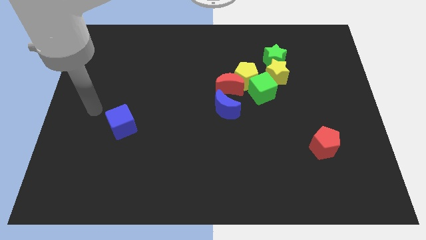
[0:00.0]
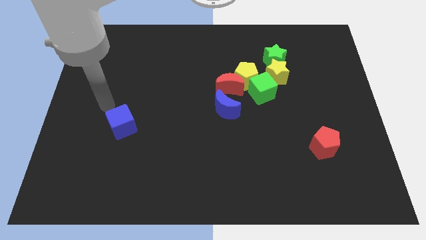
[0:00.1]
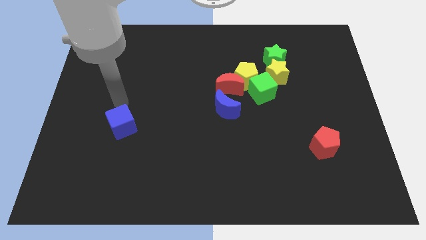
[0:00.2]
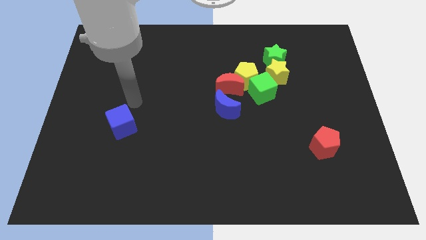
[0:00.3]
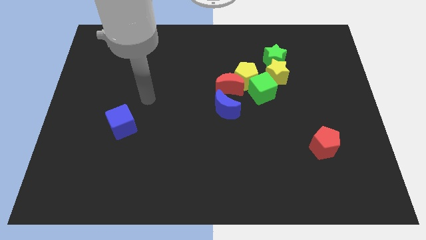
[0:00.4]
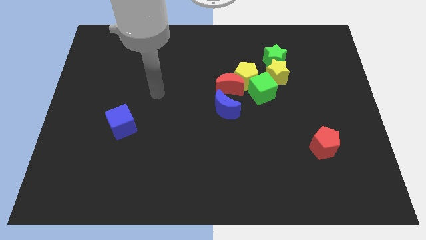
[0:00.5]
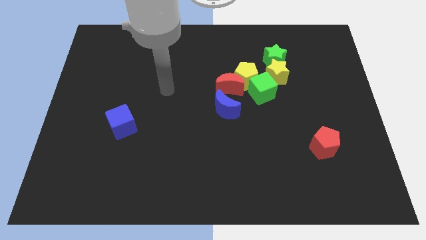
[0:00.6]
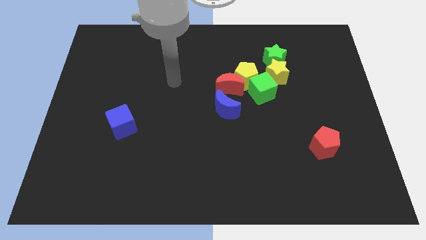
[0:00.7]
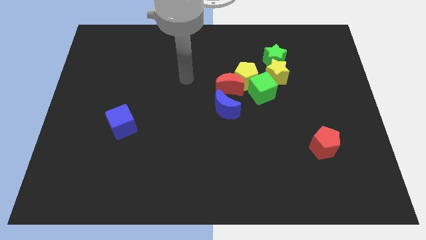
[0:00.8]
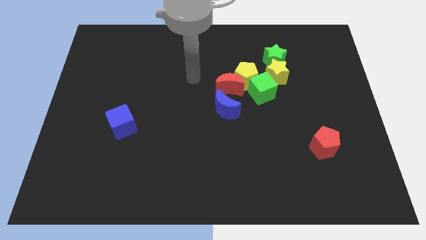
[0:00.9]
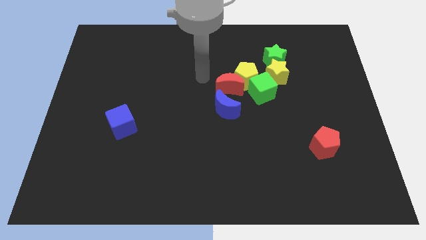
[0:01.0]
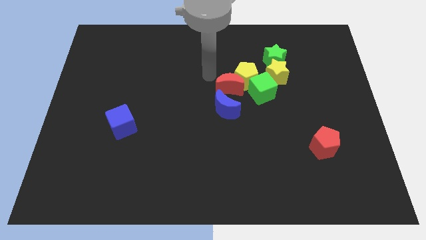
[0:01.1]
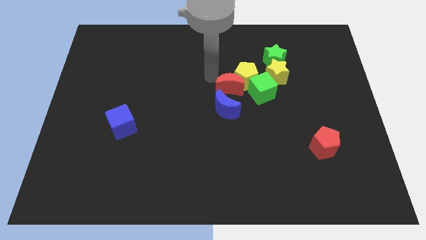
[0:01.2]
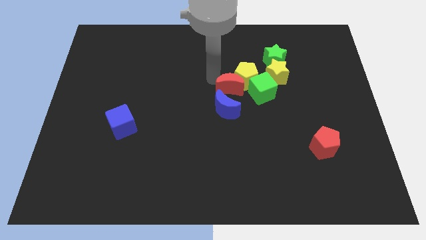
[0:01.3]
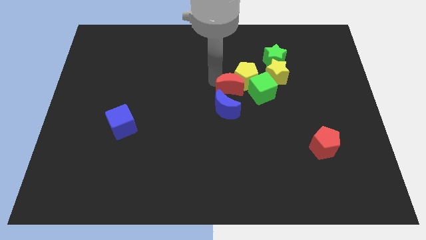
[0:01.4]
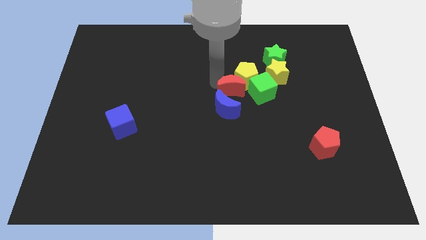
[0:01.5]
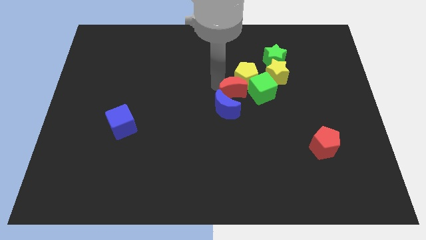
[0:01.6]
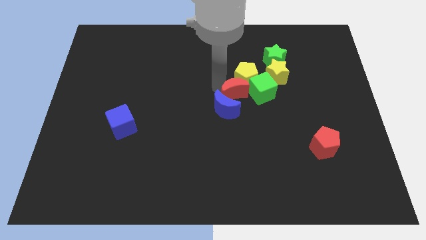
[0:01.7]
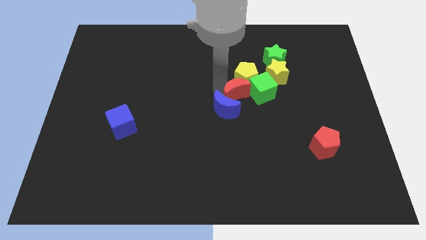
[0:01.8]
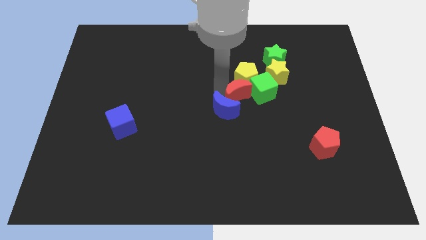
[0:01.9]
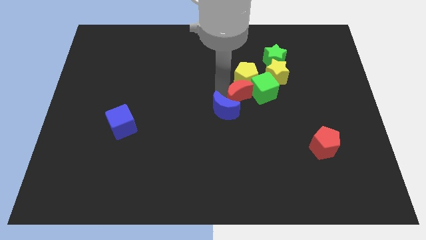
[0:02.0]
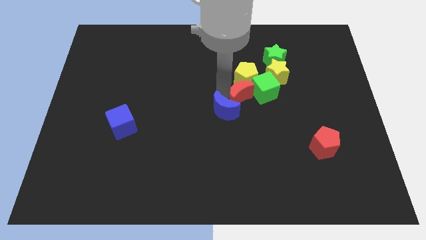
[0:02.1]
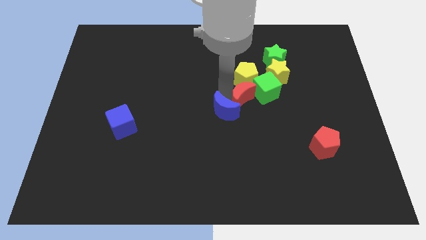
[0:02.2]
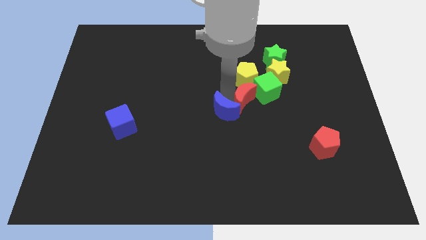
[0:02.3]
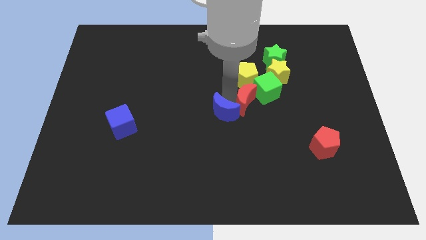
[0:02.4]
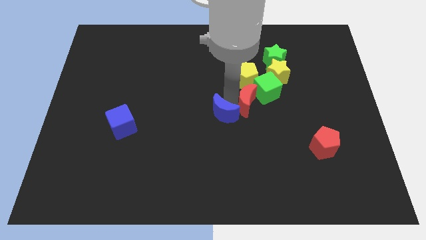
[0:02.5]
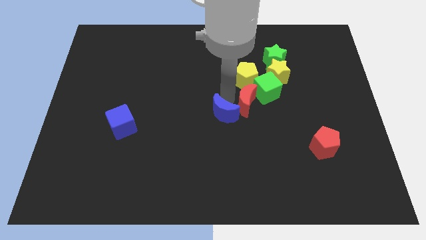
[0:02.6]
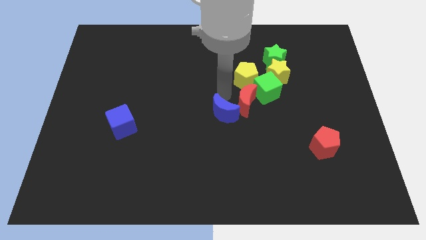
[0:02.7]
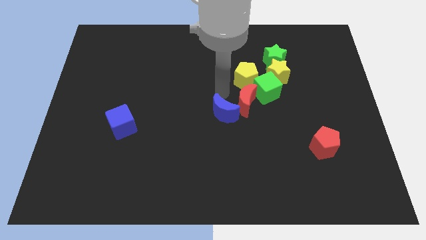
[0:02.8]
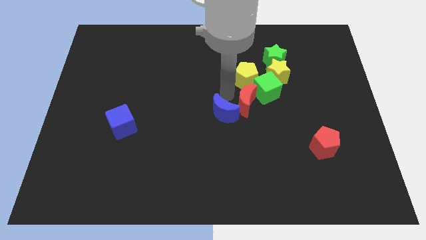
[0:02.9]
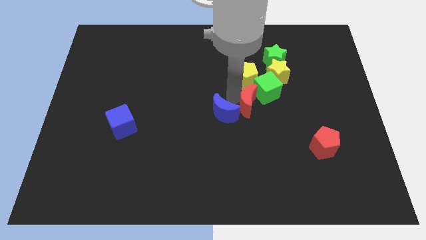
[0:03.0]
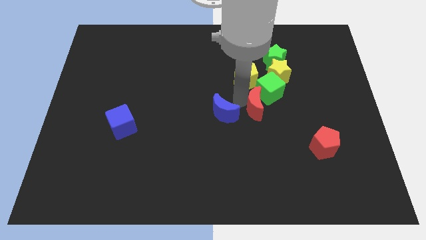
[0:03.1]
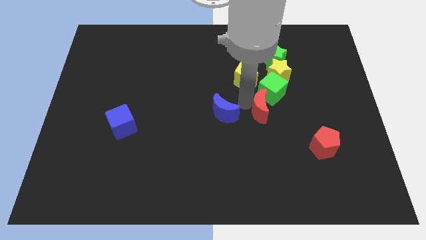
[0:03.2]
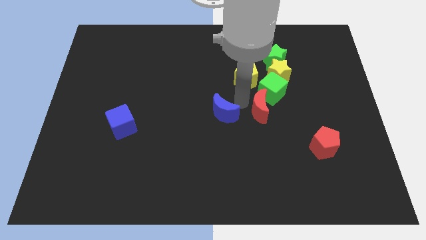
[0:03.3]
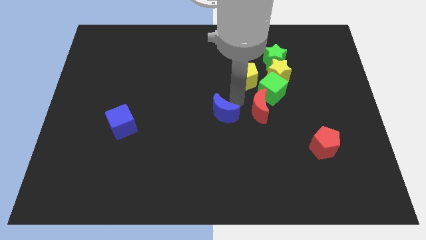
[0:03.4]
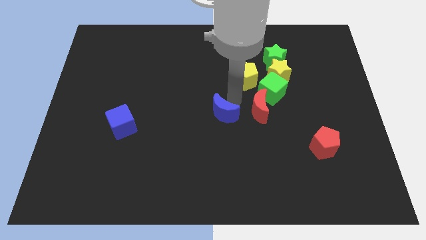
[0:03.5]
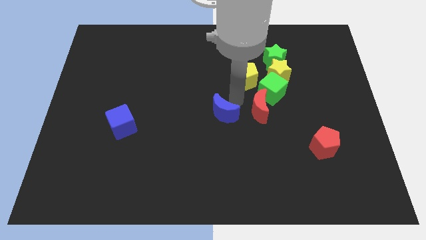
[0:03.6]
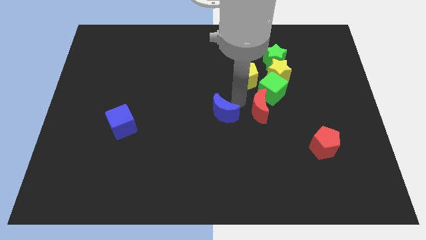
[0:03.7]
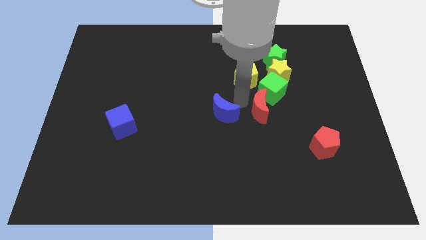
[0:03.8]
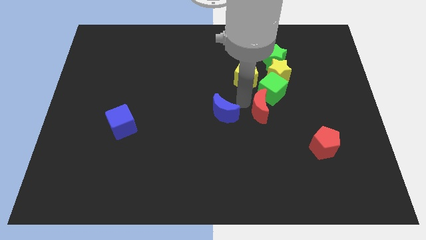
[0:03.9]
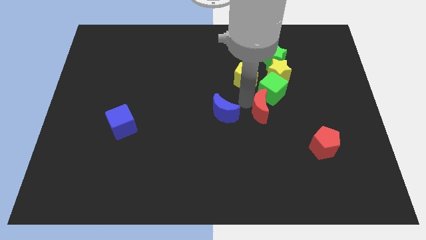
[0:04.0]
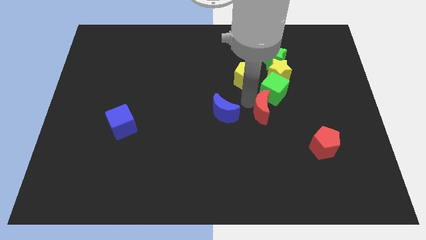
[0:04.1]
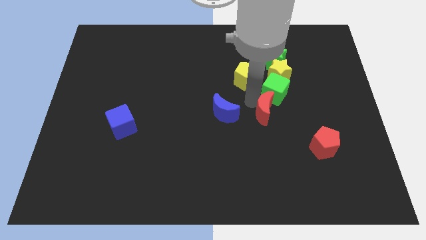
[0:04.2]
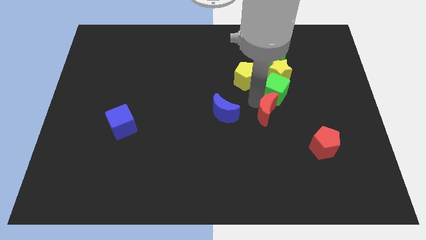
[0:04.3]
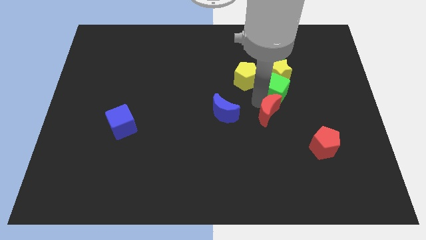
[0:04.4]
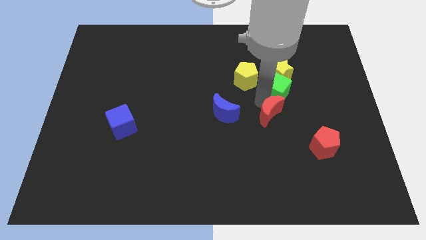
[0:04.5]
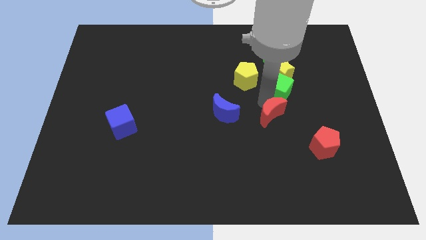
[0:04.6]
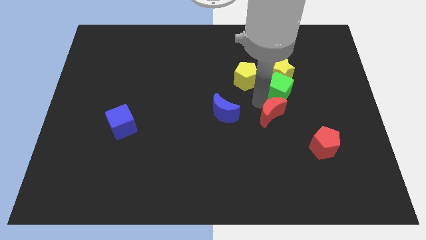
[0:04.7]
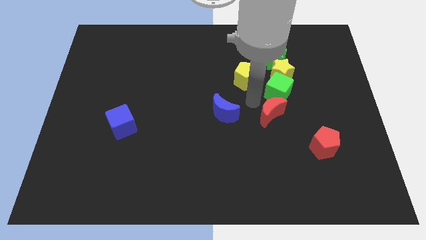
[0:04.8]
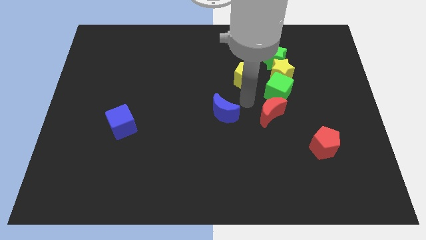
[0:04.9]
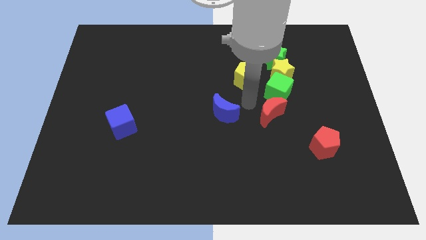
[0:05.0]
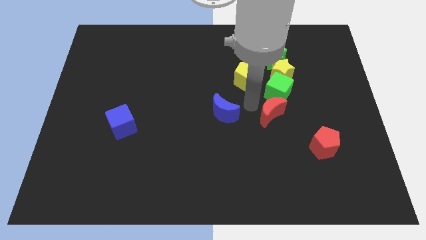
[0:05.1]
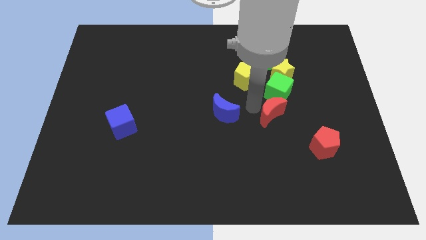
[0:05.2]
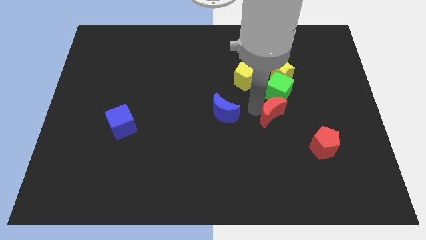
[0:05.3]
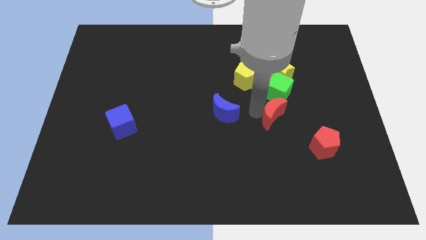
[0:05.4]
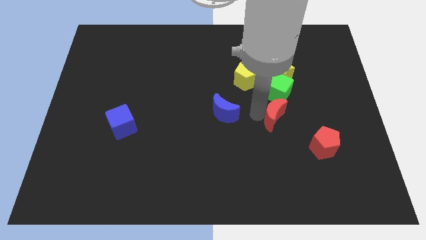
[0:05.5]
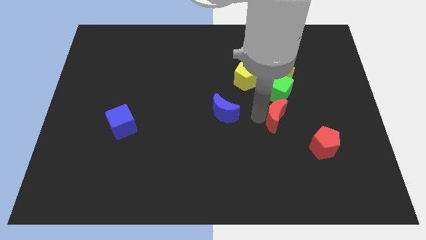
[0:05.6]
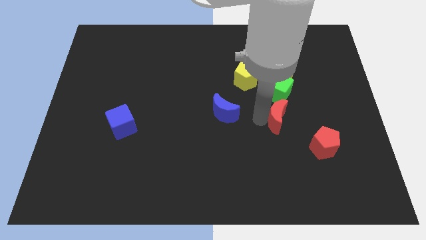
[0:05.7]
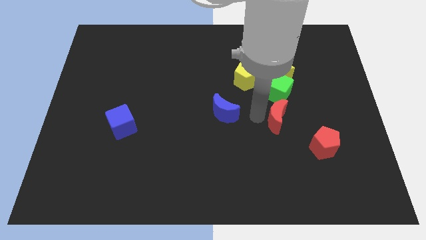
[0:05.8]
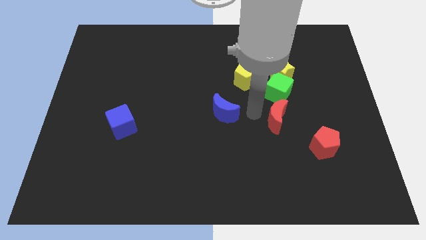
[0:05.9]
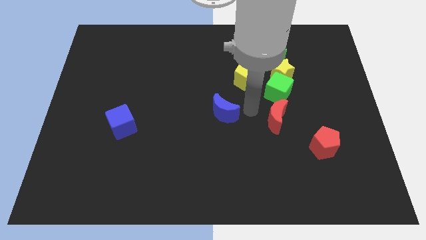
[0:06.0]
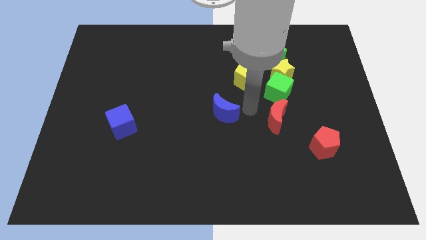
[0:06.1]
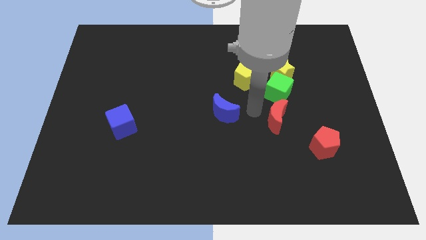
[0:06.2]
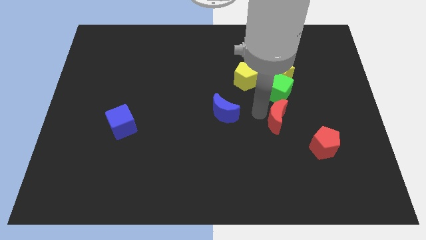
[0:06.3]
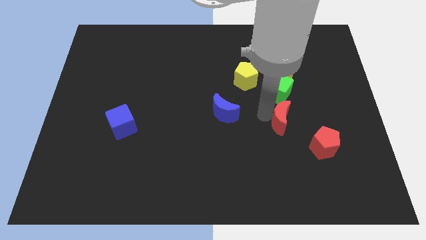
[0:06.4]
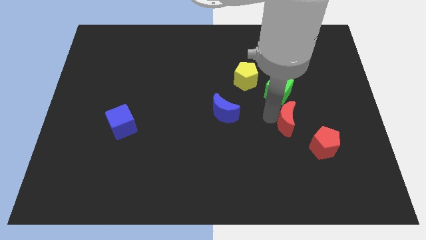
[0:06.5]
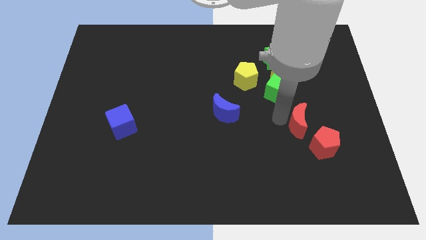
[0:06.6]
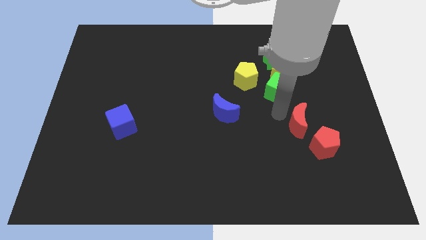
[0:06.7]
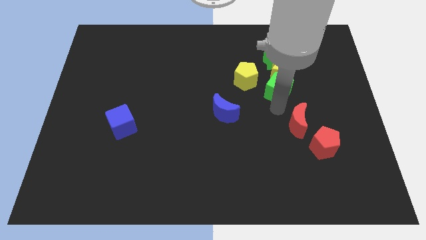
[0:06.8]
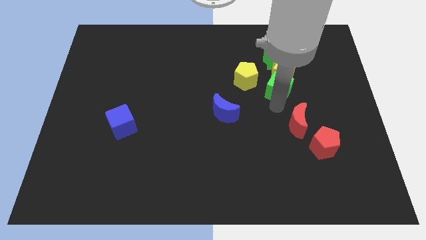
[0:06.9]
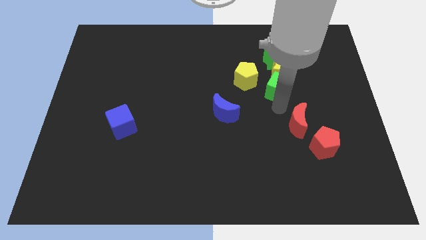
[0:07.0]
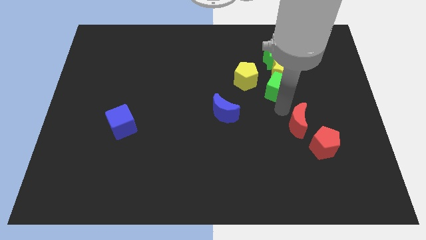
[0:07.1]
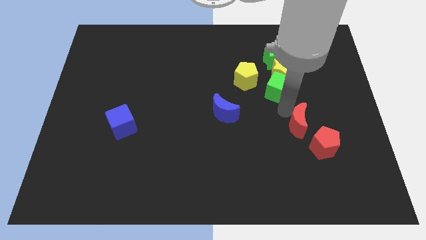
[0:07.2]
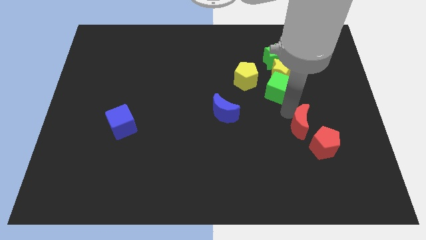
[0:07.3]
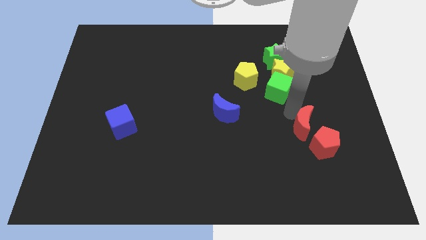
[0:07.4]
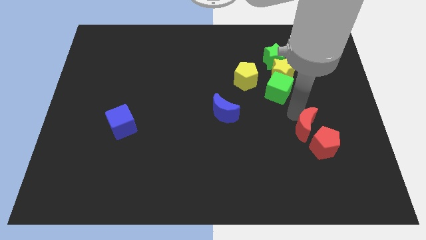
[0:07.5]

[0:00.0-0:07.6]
put the red moon towards the red pentagon
